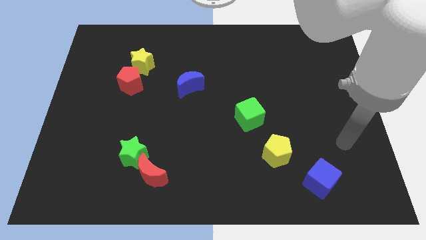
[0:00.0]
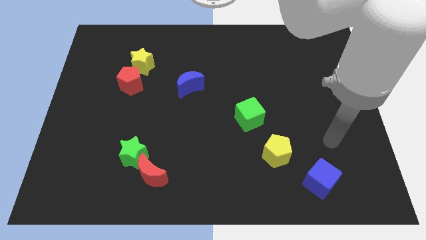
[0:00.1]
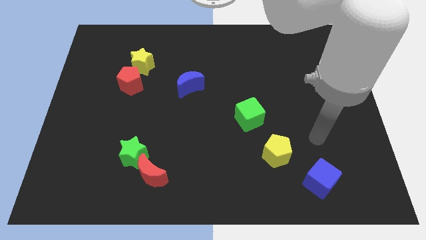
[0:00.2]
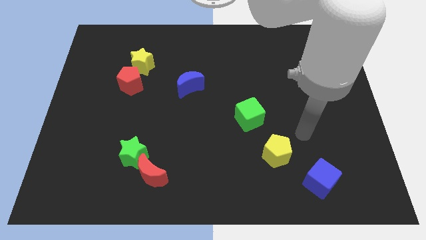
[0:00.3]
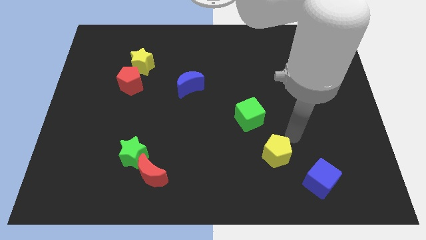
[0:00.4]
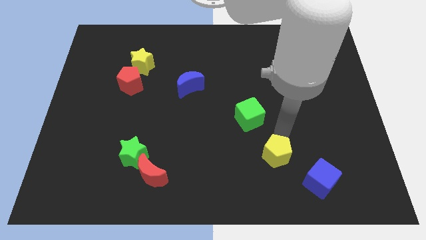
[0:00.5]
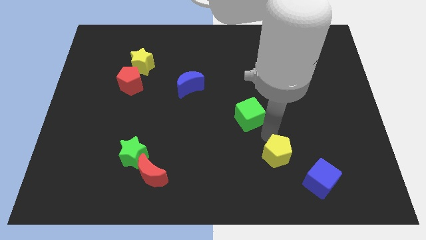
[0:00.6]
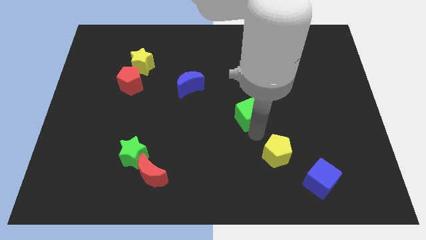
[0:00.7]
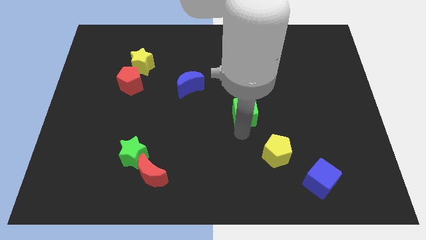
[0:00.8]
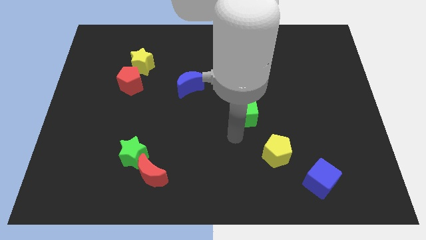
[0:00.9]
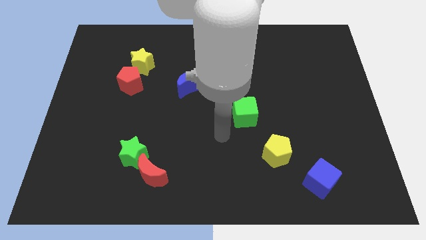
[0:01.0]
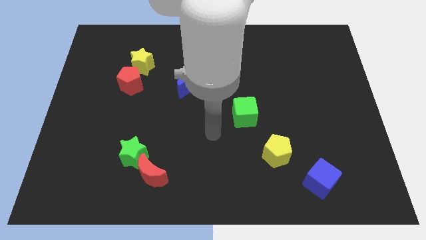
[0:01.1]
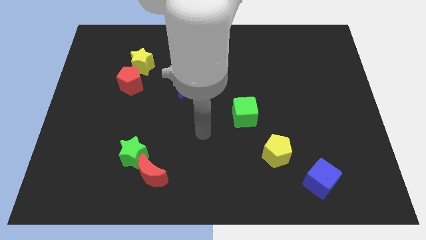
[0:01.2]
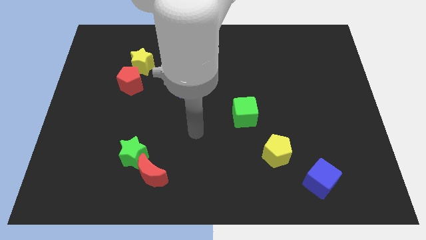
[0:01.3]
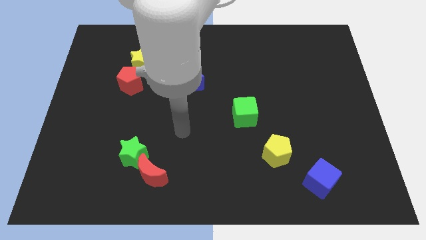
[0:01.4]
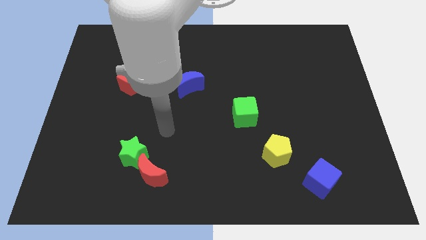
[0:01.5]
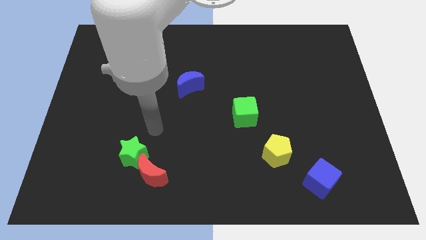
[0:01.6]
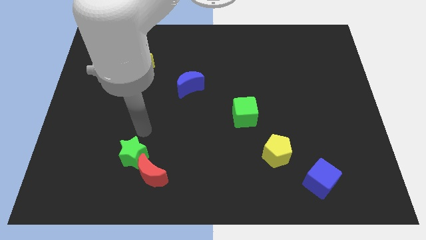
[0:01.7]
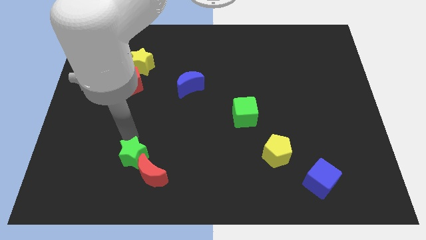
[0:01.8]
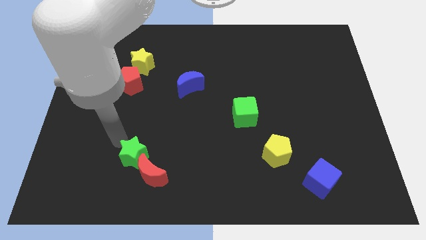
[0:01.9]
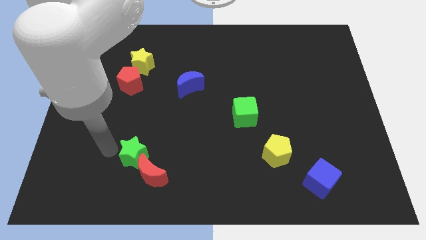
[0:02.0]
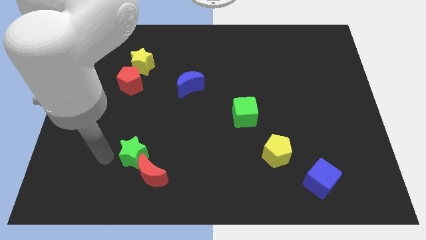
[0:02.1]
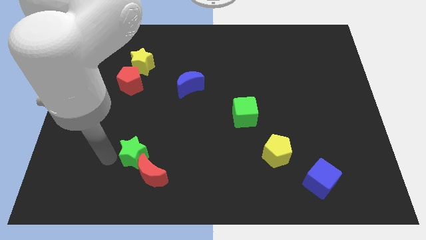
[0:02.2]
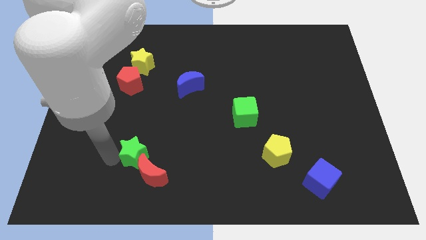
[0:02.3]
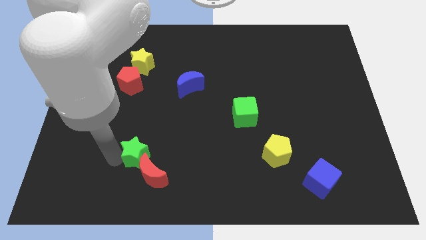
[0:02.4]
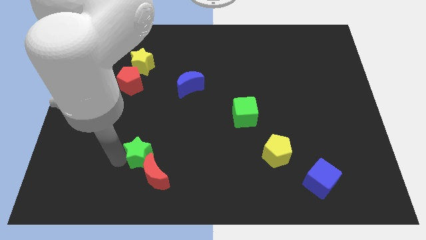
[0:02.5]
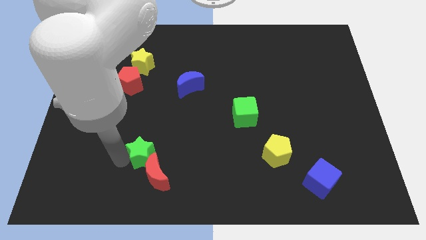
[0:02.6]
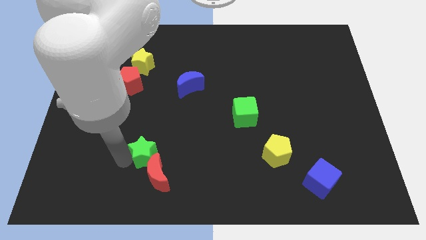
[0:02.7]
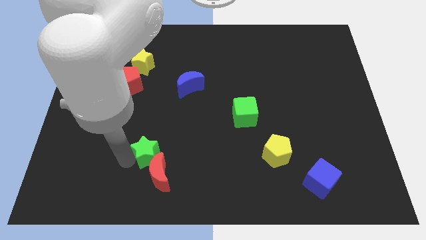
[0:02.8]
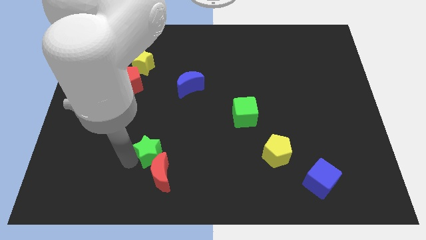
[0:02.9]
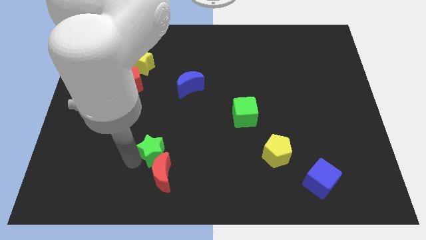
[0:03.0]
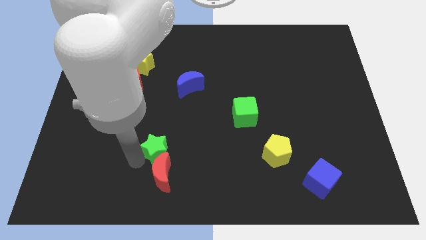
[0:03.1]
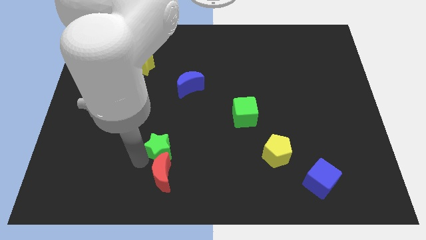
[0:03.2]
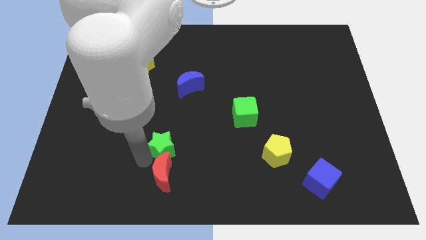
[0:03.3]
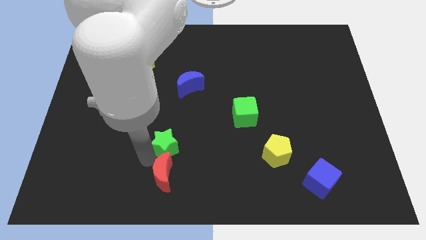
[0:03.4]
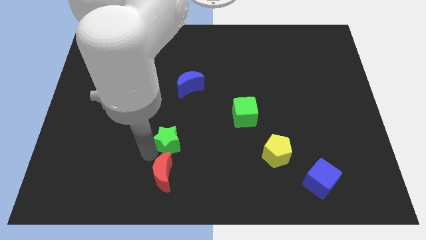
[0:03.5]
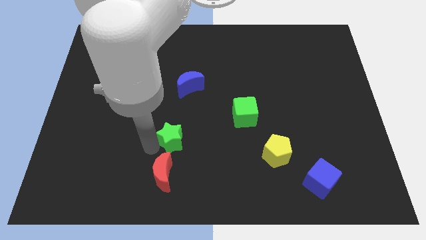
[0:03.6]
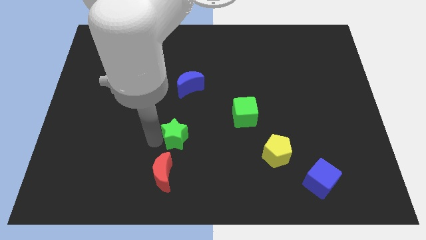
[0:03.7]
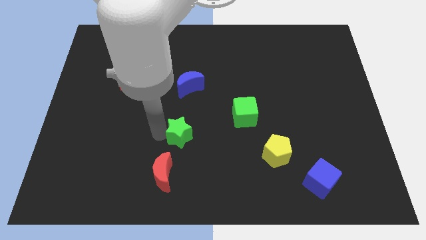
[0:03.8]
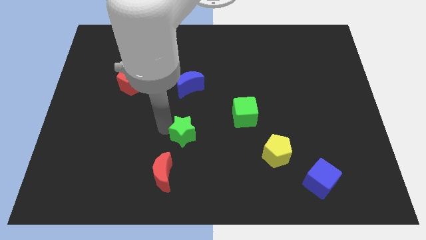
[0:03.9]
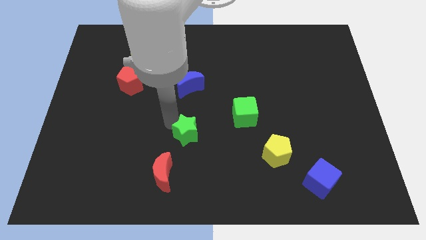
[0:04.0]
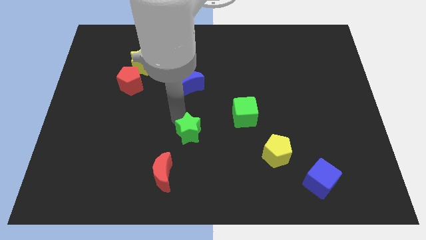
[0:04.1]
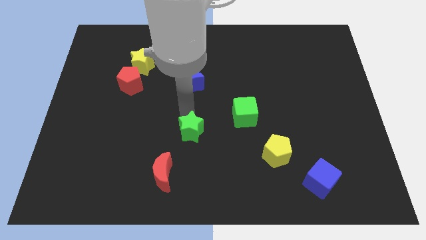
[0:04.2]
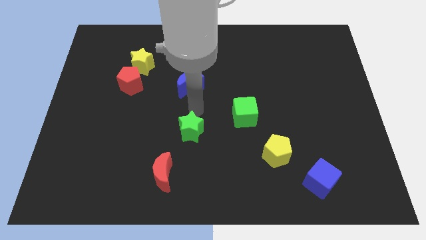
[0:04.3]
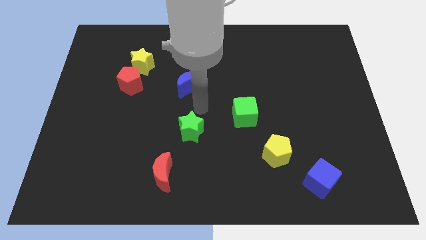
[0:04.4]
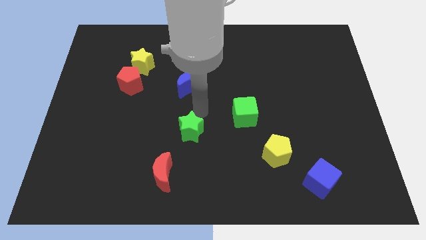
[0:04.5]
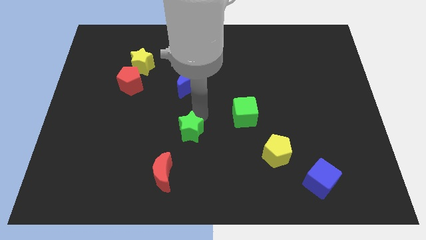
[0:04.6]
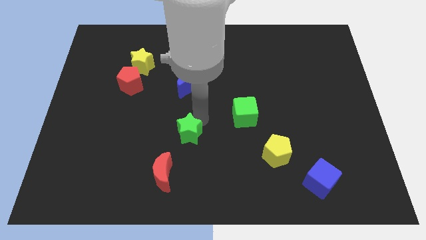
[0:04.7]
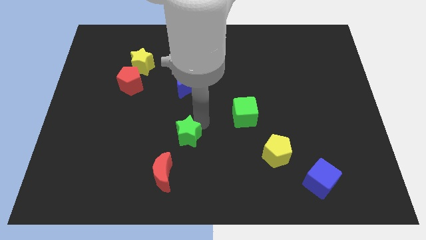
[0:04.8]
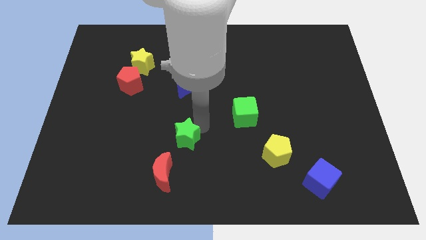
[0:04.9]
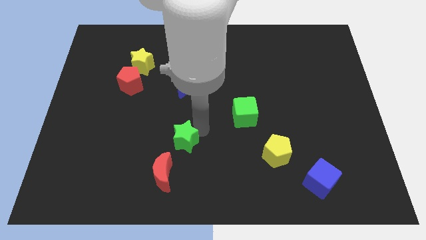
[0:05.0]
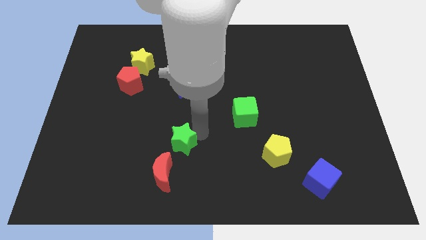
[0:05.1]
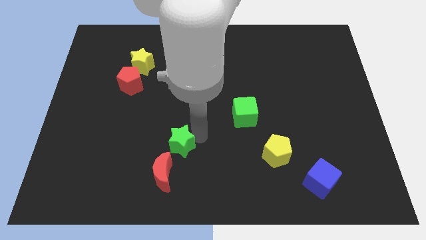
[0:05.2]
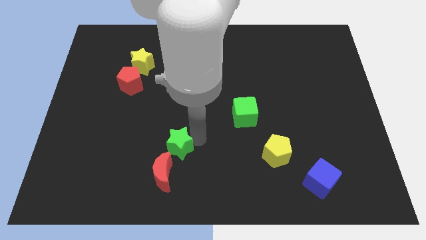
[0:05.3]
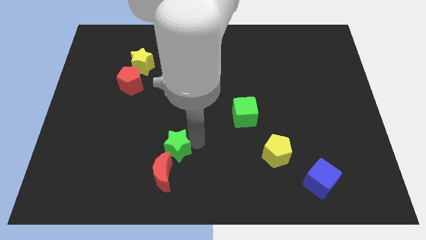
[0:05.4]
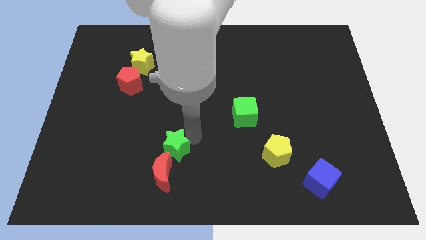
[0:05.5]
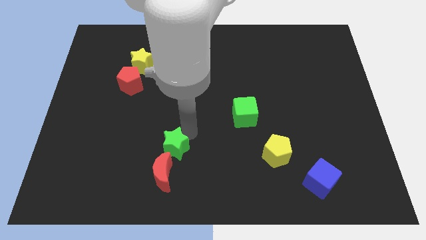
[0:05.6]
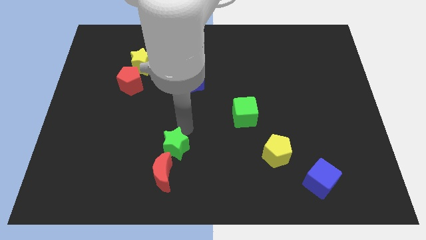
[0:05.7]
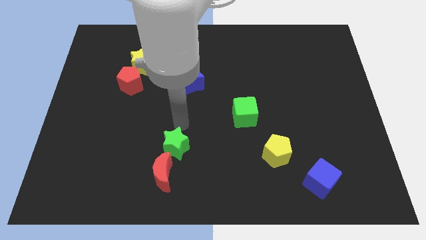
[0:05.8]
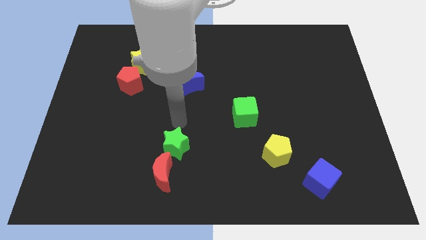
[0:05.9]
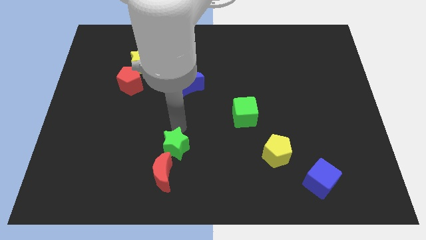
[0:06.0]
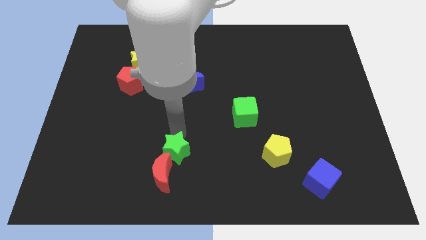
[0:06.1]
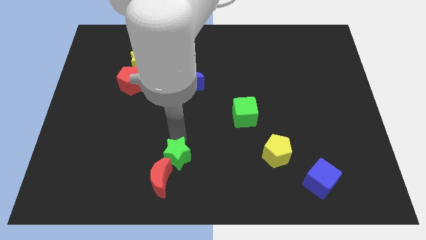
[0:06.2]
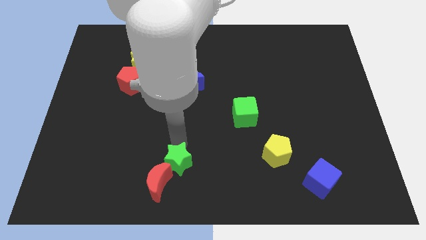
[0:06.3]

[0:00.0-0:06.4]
put the green star to the bottom side
